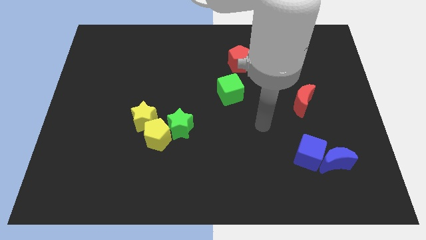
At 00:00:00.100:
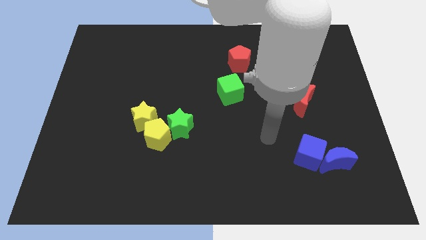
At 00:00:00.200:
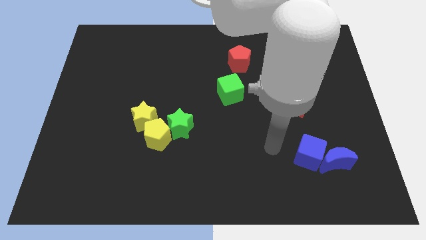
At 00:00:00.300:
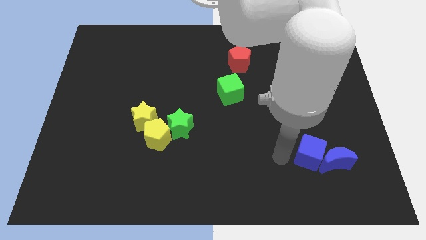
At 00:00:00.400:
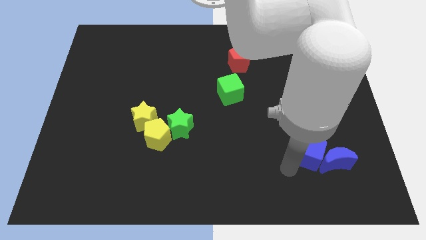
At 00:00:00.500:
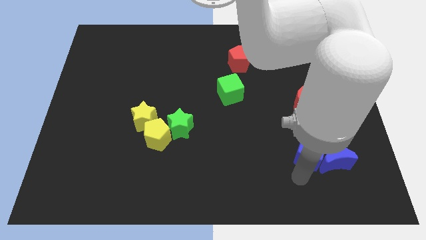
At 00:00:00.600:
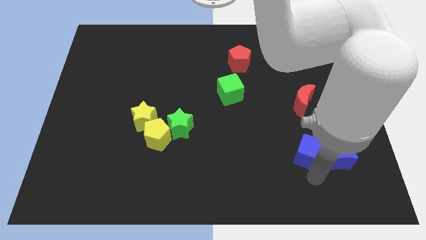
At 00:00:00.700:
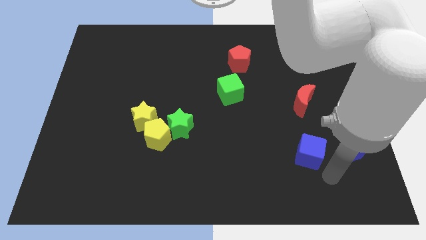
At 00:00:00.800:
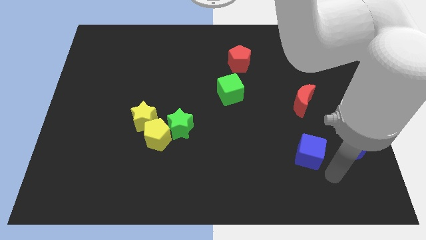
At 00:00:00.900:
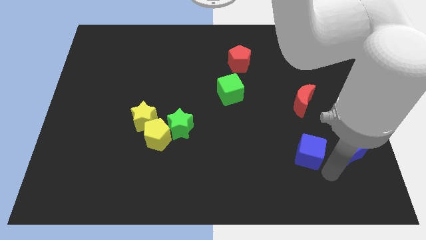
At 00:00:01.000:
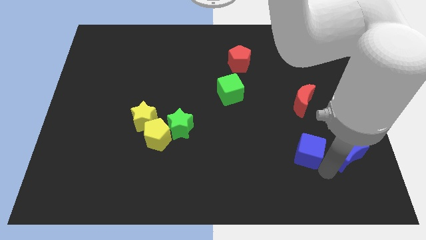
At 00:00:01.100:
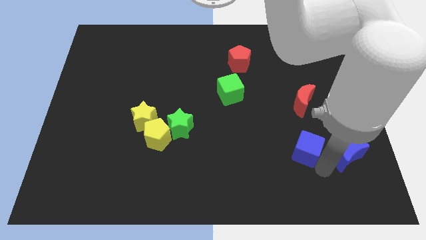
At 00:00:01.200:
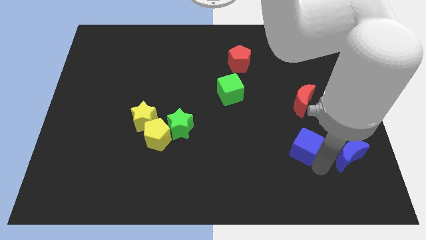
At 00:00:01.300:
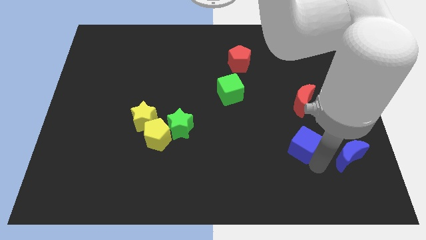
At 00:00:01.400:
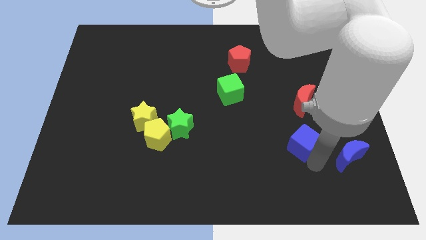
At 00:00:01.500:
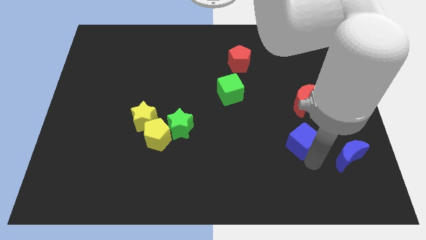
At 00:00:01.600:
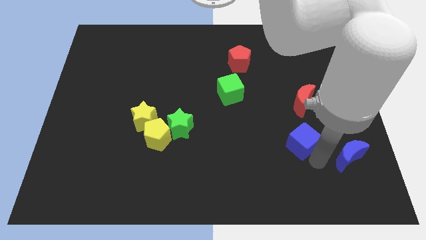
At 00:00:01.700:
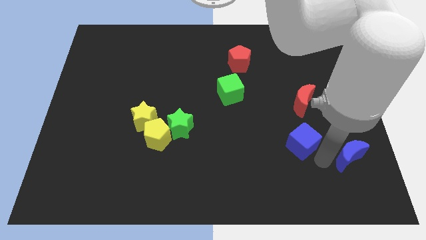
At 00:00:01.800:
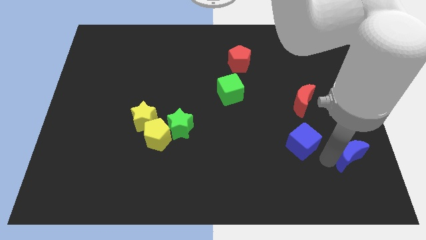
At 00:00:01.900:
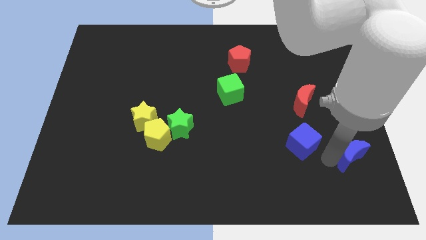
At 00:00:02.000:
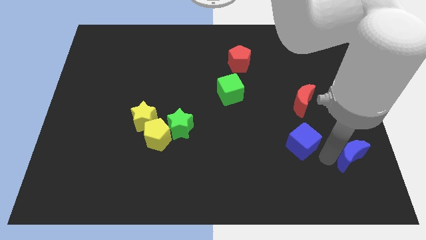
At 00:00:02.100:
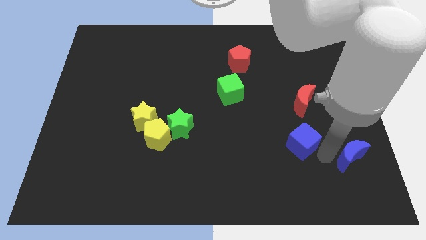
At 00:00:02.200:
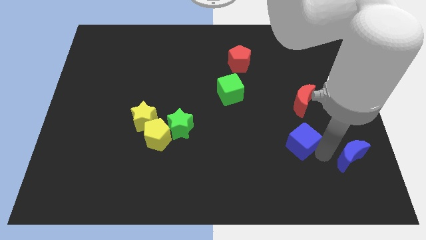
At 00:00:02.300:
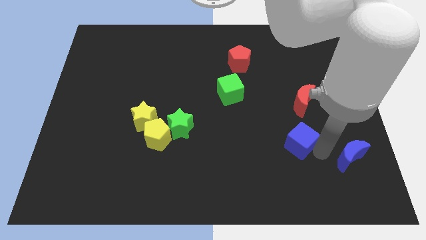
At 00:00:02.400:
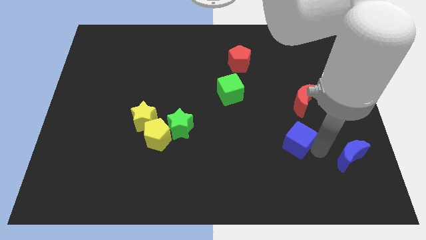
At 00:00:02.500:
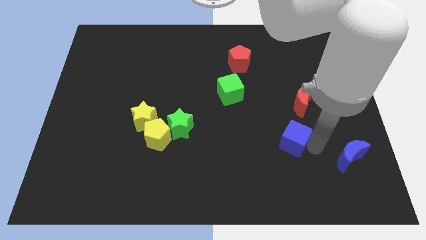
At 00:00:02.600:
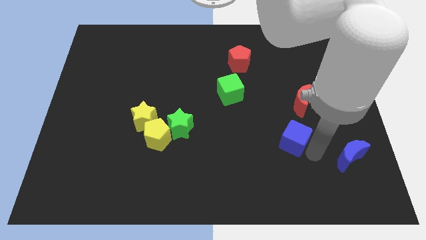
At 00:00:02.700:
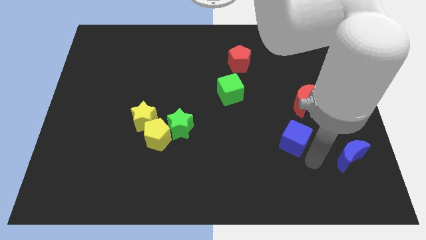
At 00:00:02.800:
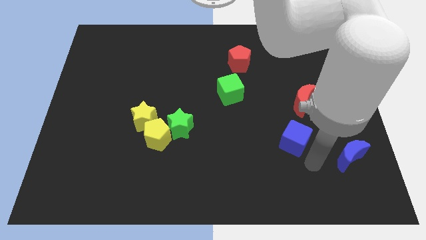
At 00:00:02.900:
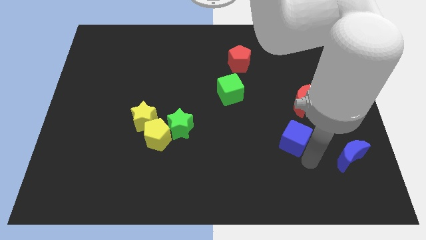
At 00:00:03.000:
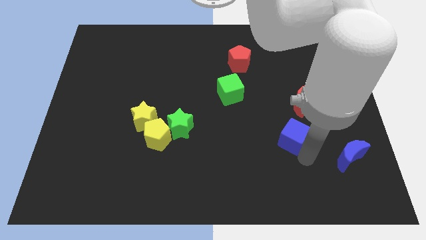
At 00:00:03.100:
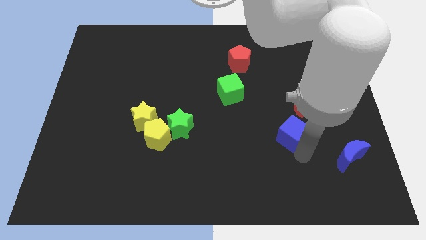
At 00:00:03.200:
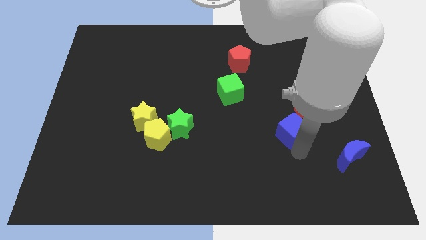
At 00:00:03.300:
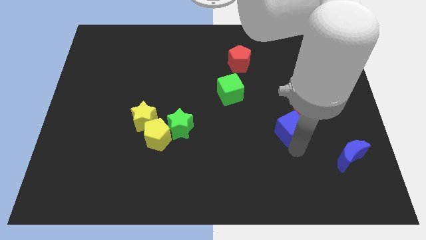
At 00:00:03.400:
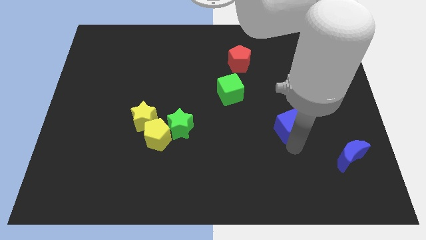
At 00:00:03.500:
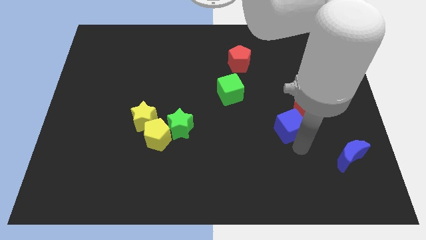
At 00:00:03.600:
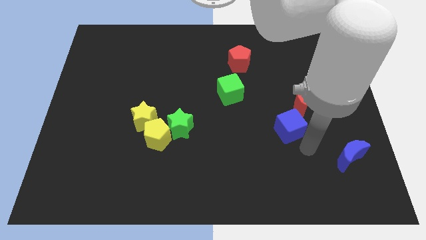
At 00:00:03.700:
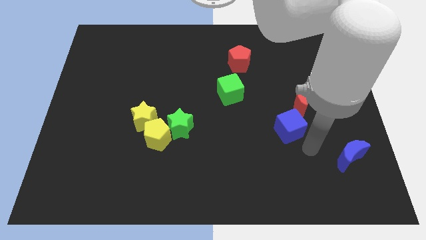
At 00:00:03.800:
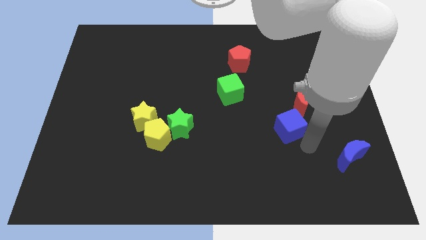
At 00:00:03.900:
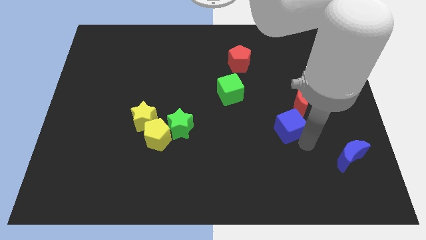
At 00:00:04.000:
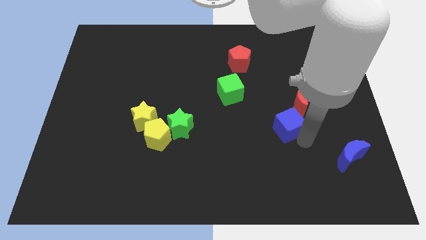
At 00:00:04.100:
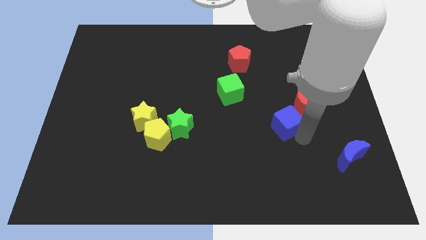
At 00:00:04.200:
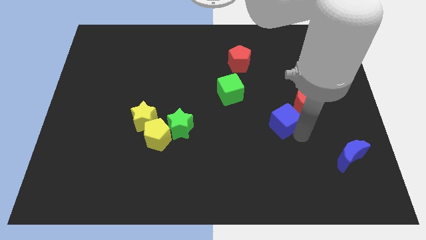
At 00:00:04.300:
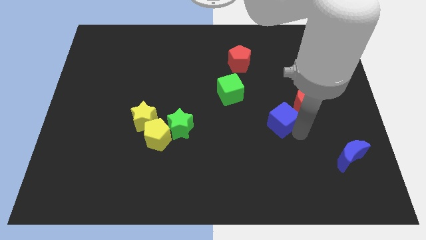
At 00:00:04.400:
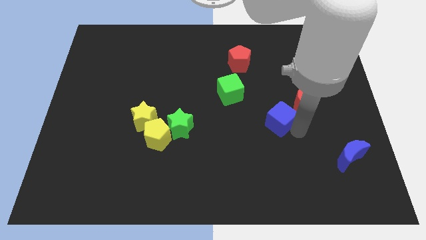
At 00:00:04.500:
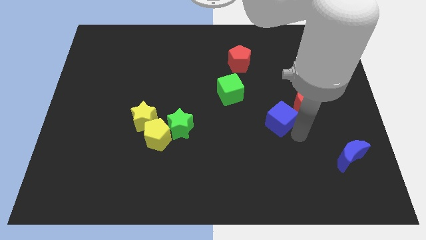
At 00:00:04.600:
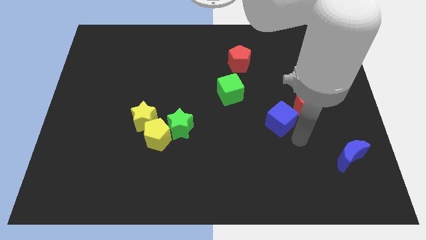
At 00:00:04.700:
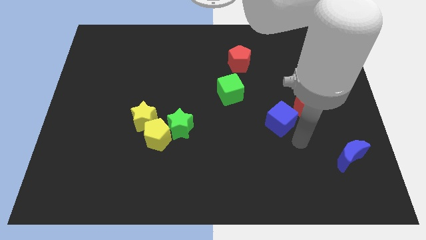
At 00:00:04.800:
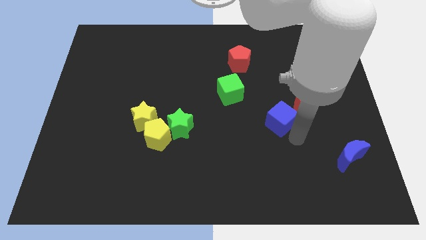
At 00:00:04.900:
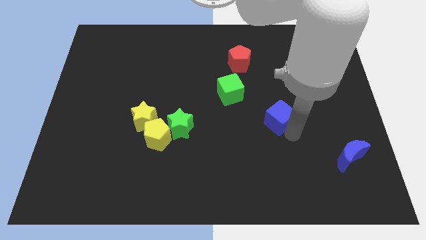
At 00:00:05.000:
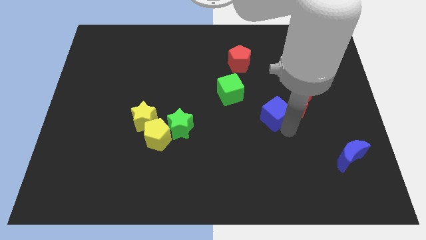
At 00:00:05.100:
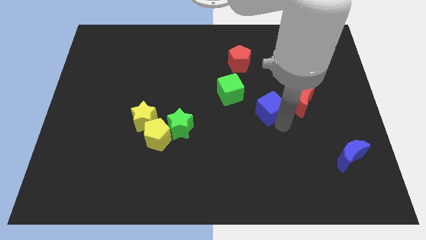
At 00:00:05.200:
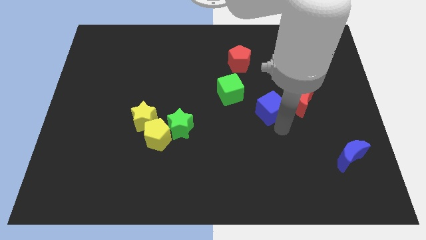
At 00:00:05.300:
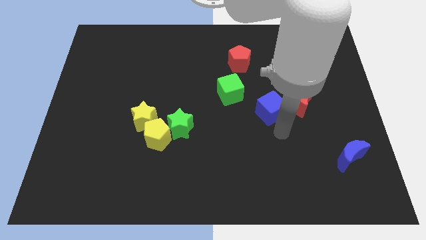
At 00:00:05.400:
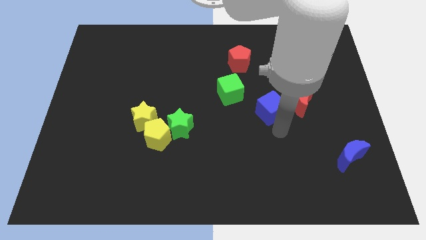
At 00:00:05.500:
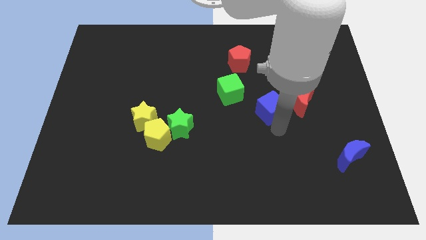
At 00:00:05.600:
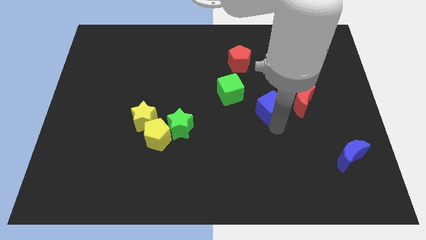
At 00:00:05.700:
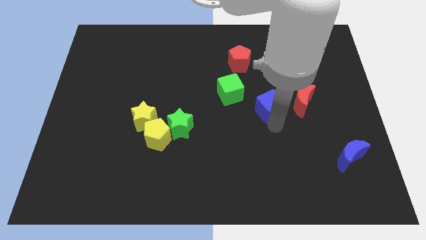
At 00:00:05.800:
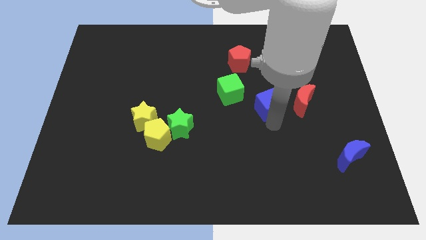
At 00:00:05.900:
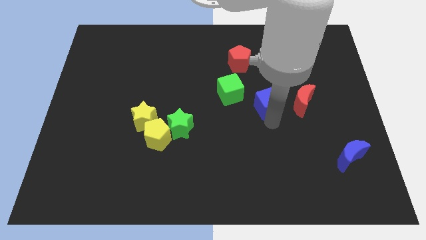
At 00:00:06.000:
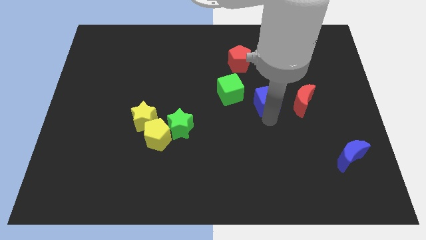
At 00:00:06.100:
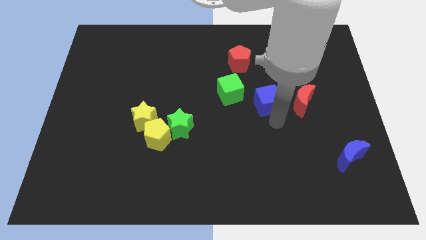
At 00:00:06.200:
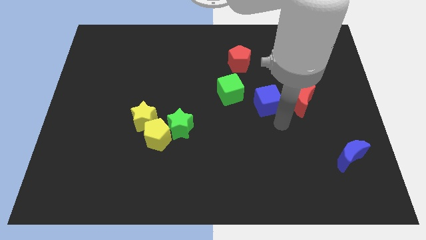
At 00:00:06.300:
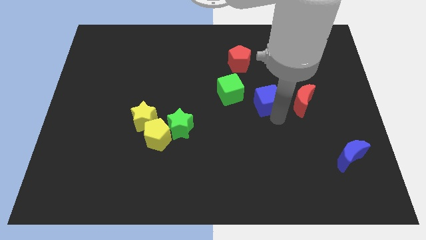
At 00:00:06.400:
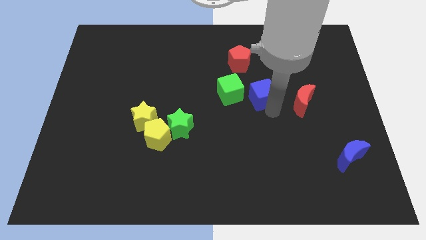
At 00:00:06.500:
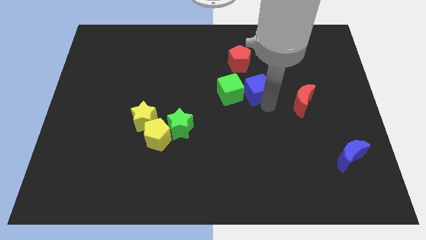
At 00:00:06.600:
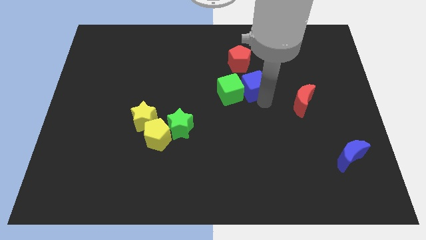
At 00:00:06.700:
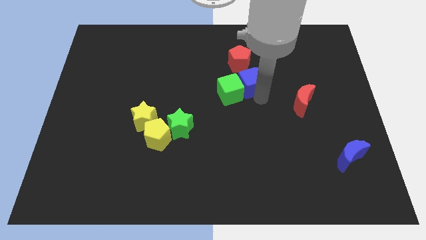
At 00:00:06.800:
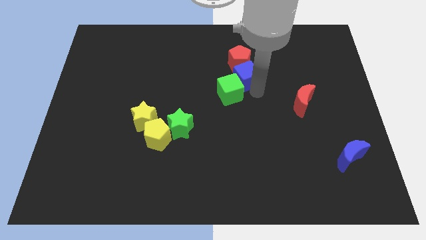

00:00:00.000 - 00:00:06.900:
slide the blue cube to the top of the green cube

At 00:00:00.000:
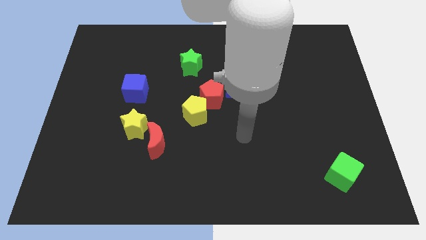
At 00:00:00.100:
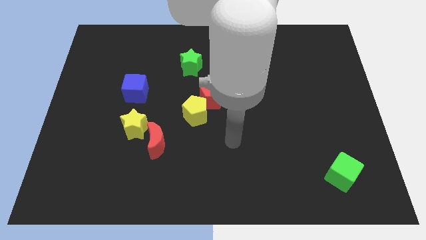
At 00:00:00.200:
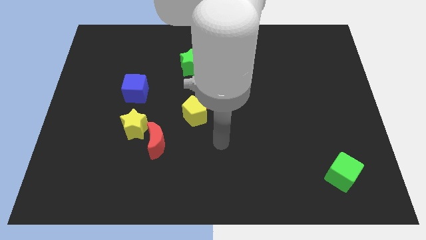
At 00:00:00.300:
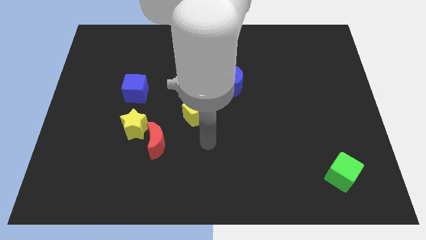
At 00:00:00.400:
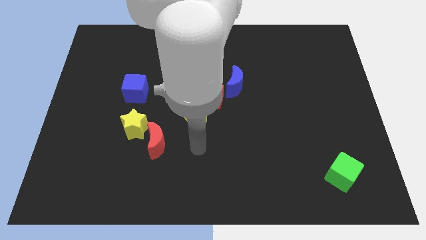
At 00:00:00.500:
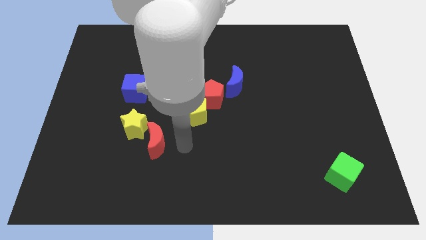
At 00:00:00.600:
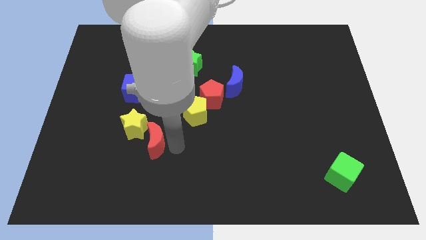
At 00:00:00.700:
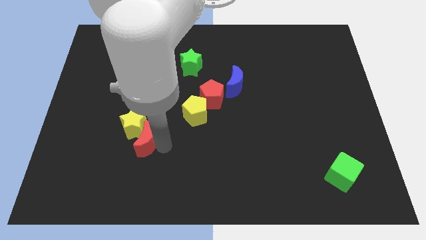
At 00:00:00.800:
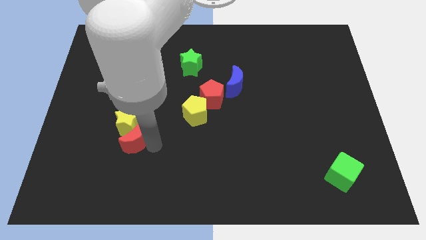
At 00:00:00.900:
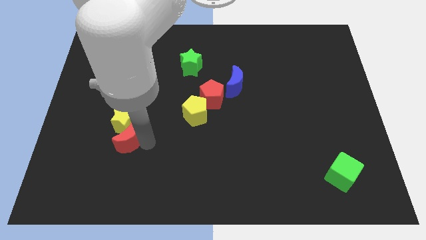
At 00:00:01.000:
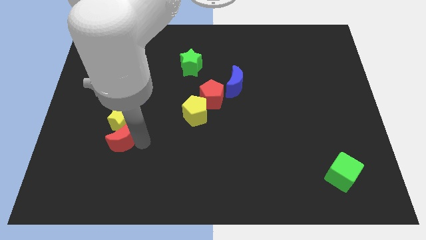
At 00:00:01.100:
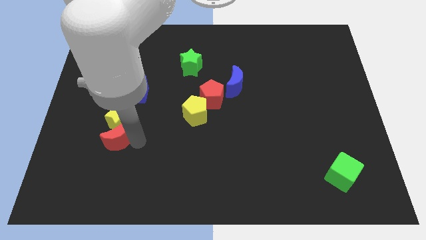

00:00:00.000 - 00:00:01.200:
move the yellow star diagonally down and to the left of the blue cube

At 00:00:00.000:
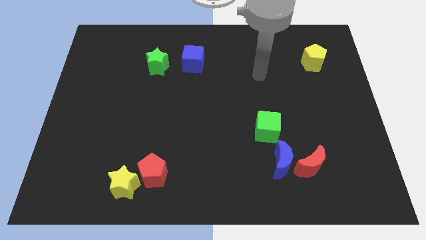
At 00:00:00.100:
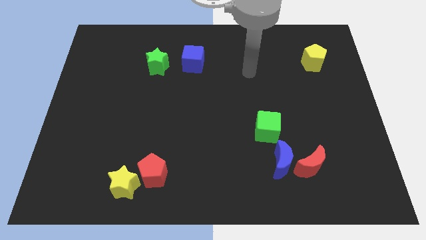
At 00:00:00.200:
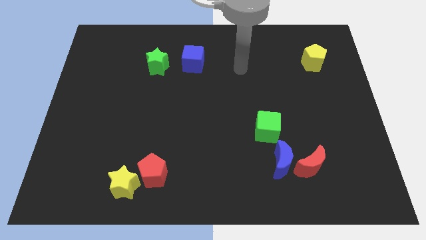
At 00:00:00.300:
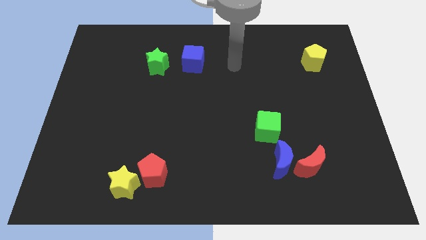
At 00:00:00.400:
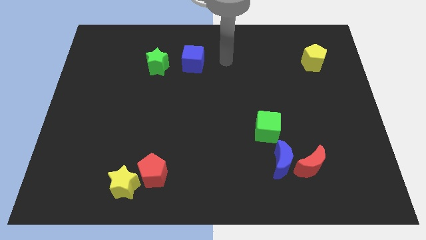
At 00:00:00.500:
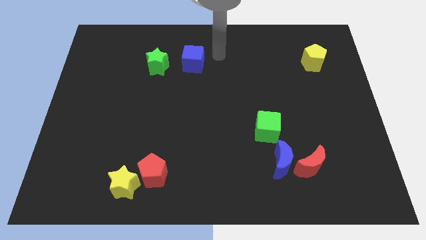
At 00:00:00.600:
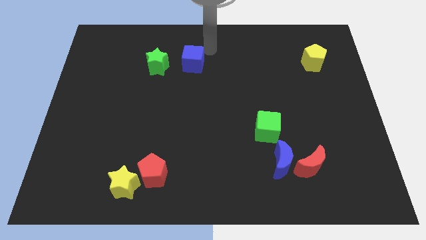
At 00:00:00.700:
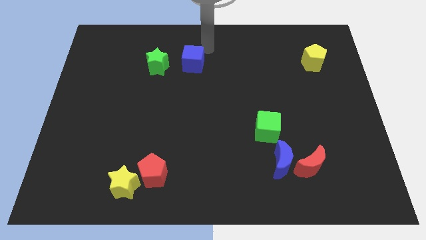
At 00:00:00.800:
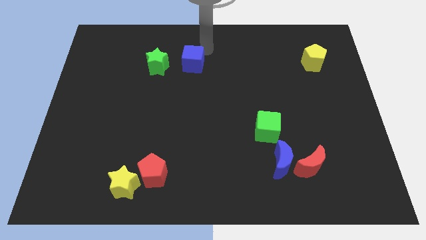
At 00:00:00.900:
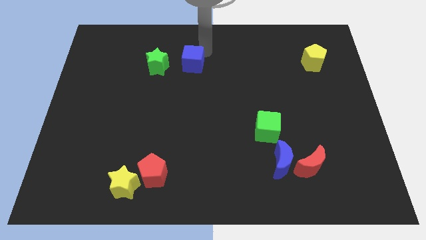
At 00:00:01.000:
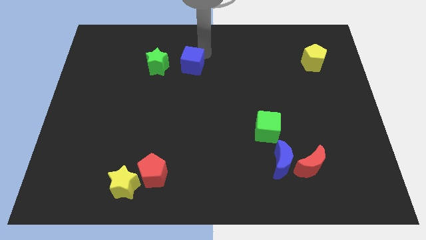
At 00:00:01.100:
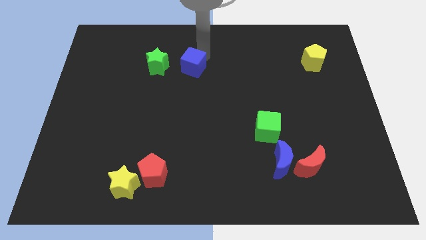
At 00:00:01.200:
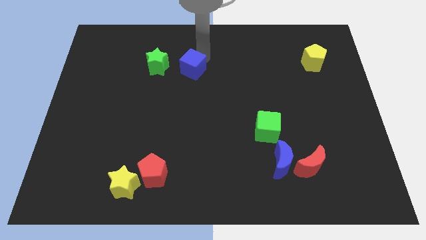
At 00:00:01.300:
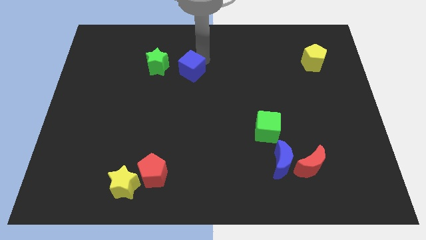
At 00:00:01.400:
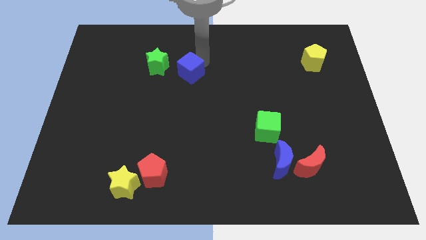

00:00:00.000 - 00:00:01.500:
slide the blue cube diagonally down and to the right of the green star
